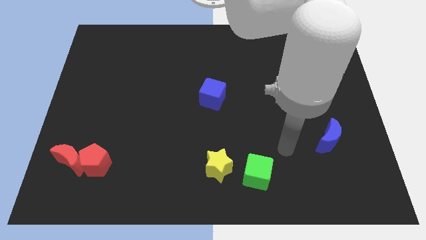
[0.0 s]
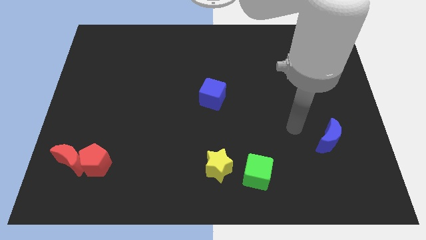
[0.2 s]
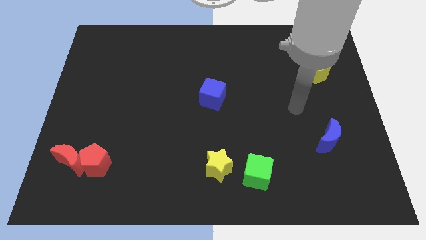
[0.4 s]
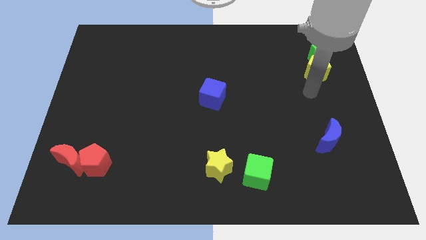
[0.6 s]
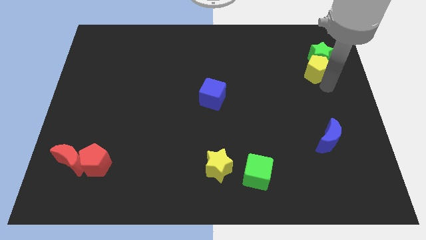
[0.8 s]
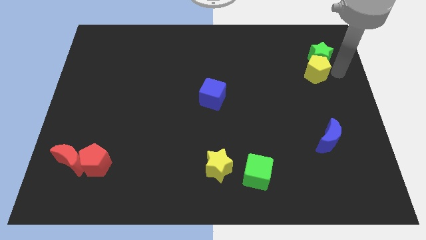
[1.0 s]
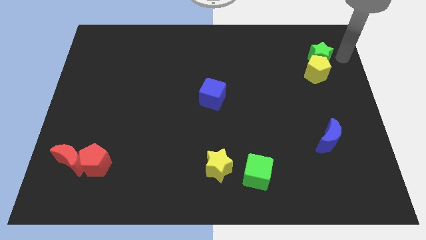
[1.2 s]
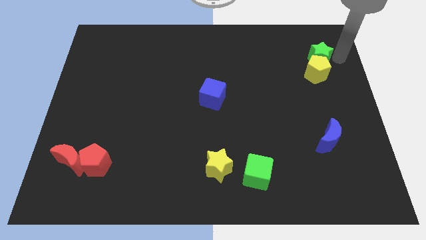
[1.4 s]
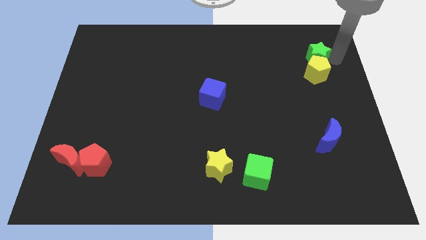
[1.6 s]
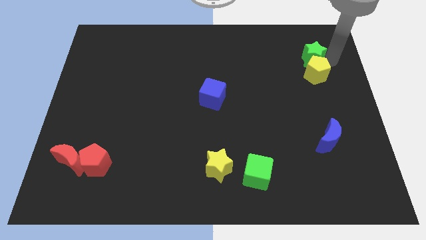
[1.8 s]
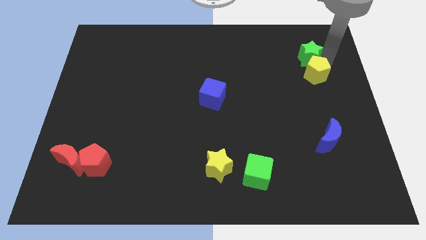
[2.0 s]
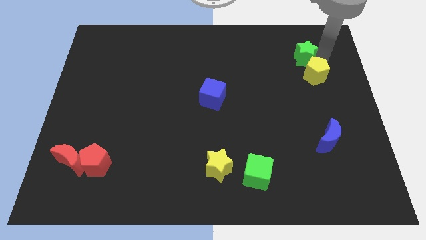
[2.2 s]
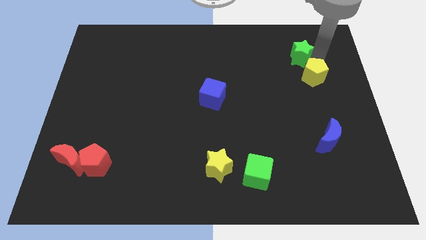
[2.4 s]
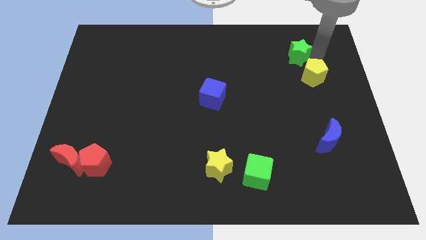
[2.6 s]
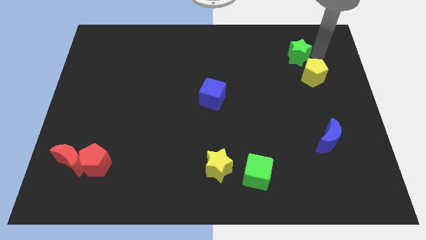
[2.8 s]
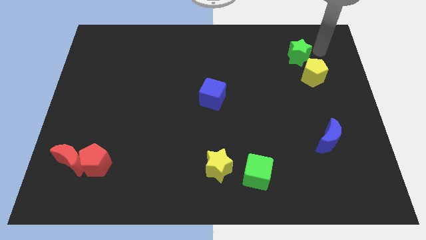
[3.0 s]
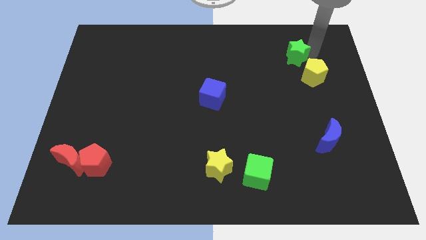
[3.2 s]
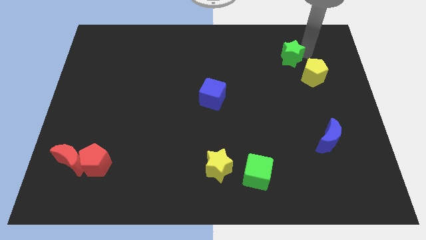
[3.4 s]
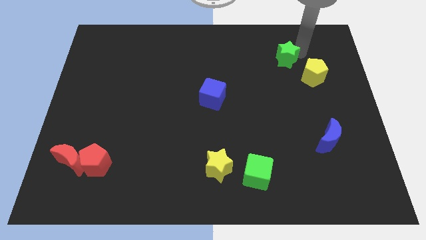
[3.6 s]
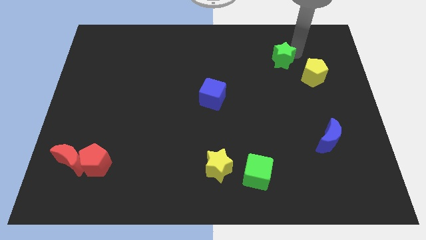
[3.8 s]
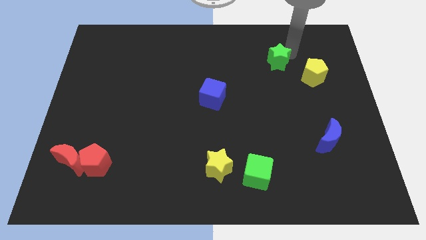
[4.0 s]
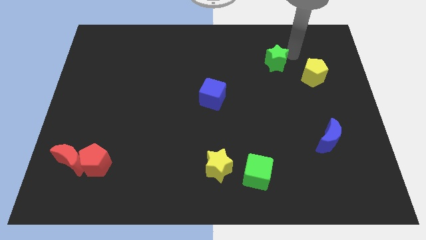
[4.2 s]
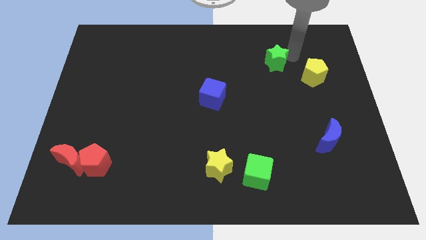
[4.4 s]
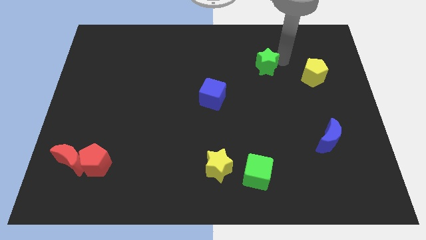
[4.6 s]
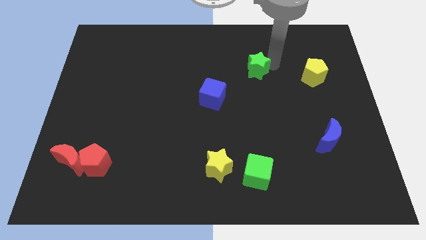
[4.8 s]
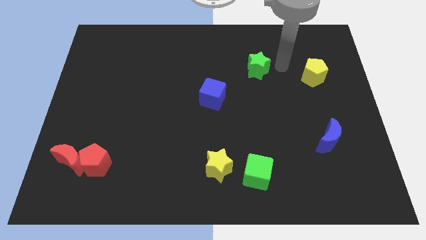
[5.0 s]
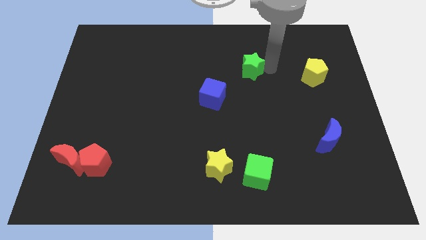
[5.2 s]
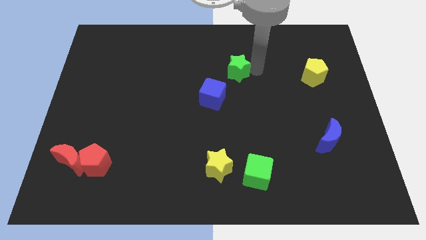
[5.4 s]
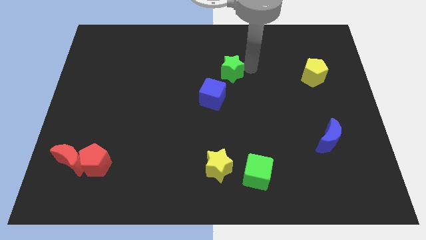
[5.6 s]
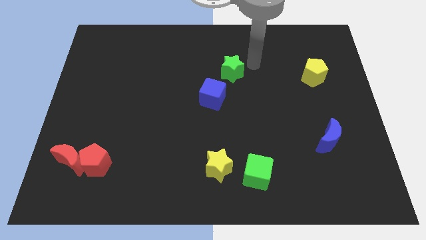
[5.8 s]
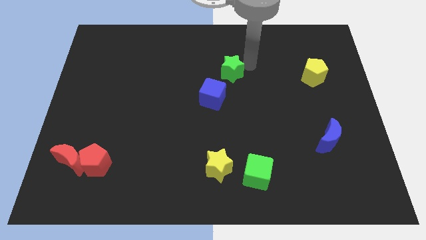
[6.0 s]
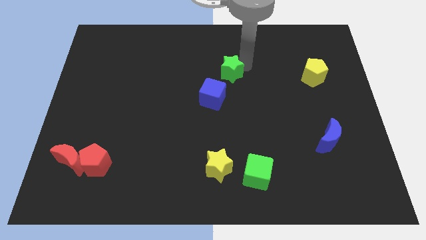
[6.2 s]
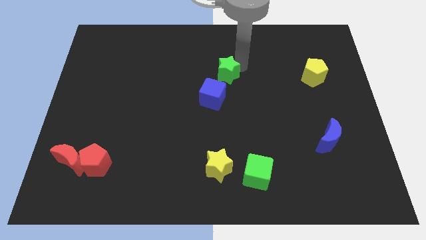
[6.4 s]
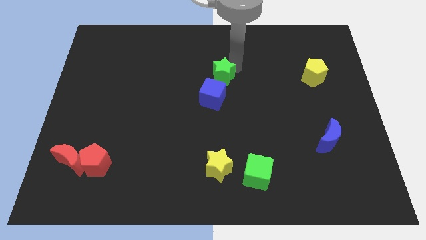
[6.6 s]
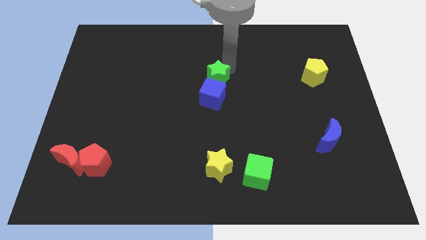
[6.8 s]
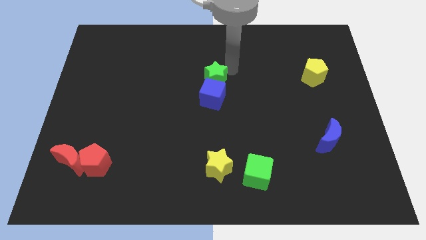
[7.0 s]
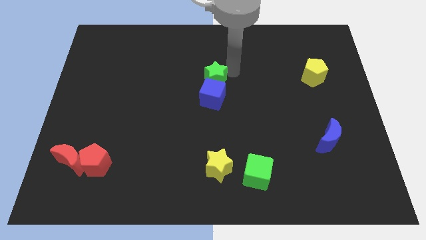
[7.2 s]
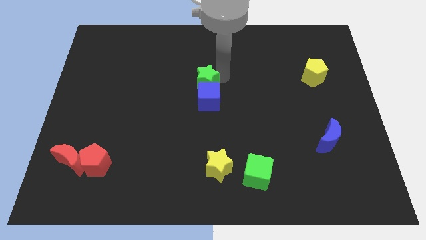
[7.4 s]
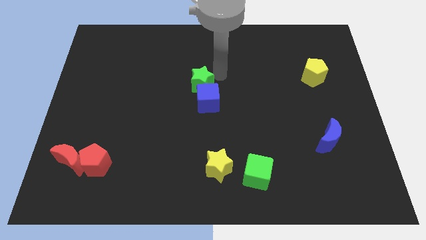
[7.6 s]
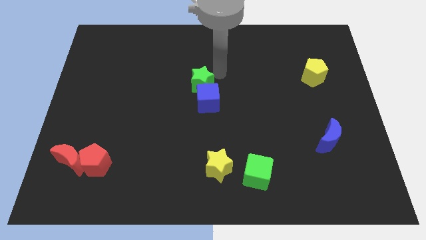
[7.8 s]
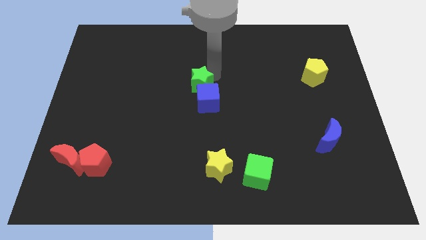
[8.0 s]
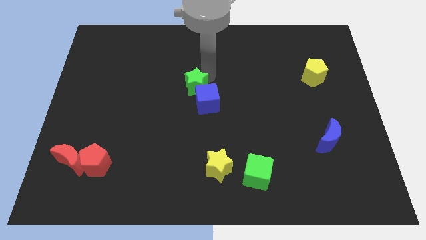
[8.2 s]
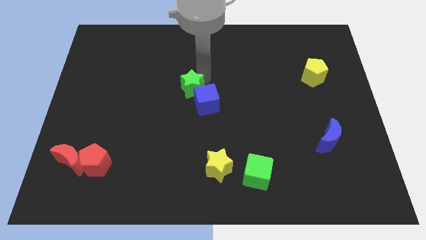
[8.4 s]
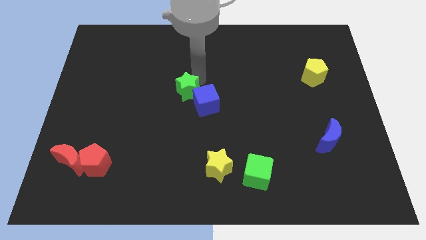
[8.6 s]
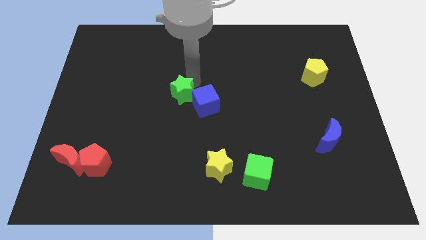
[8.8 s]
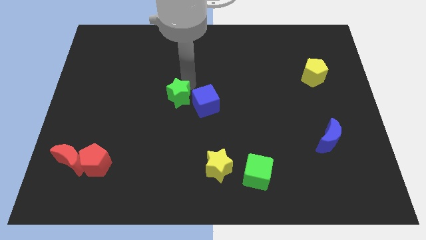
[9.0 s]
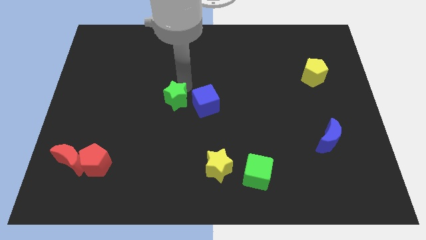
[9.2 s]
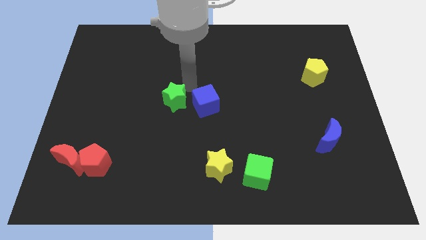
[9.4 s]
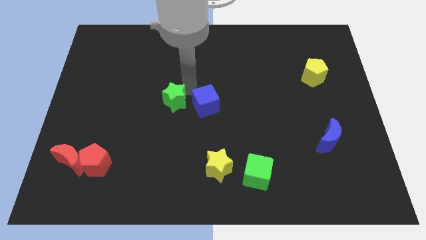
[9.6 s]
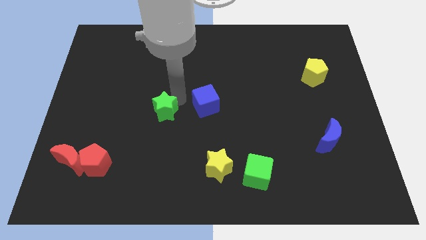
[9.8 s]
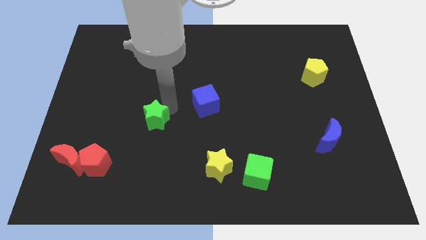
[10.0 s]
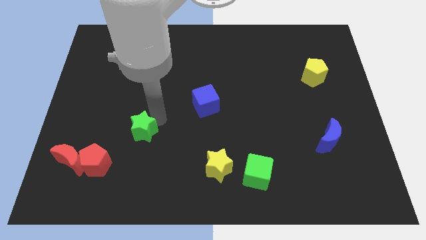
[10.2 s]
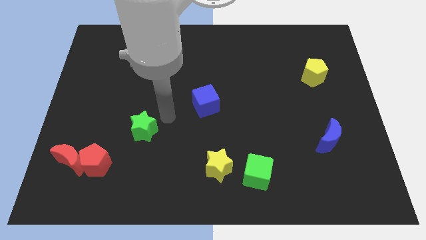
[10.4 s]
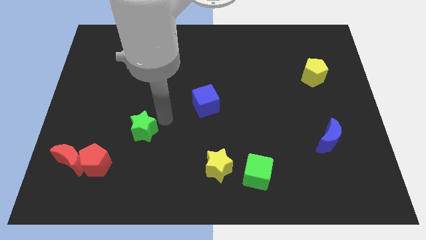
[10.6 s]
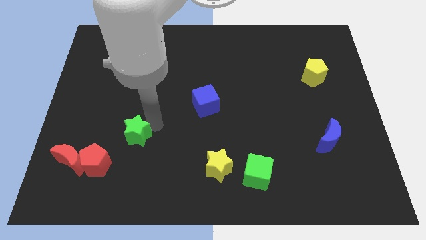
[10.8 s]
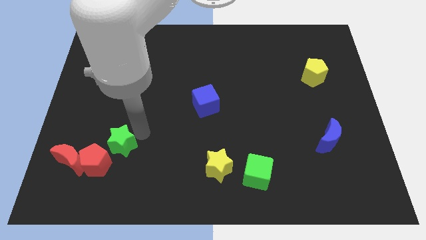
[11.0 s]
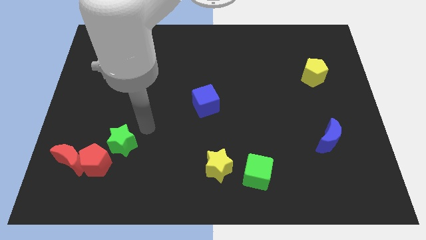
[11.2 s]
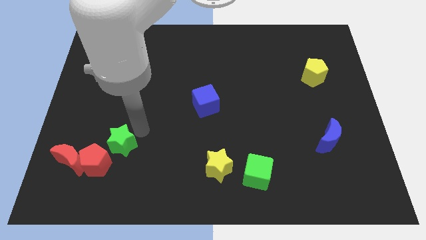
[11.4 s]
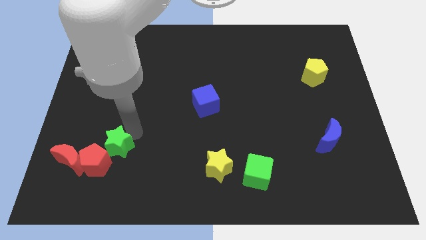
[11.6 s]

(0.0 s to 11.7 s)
slide the green star to the red pentagon

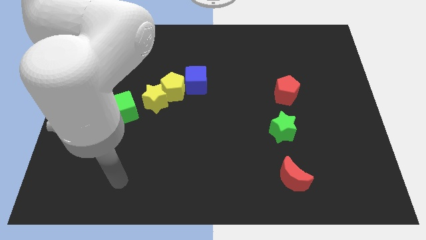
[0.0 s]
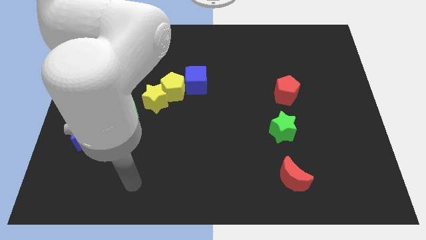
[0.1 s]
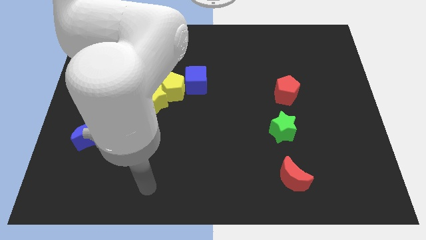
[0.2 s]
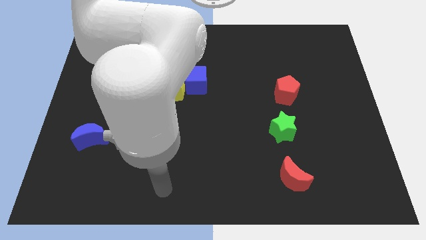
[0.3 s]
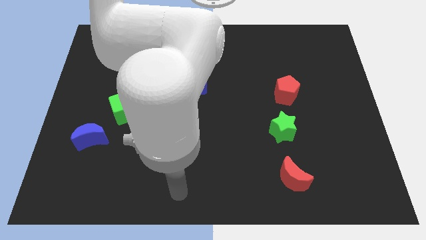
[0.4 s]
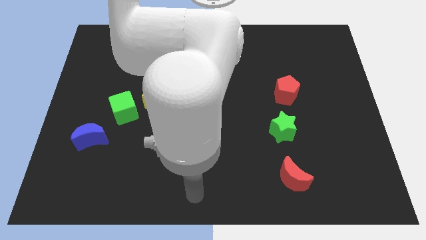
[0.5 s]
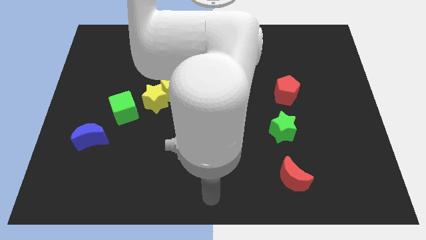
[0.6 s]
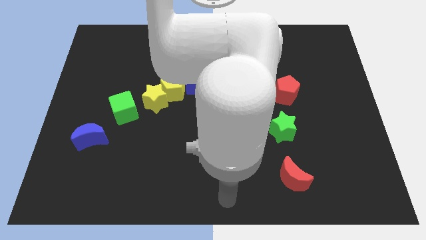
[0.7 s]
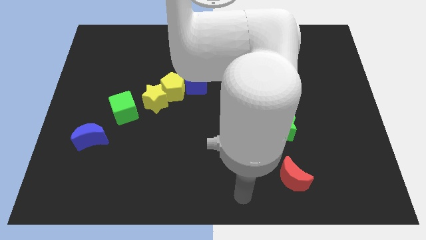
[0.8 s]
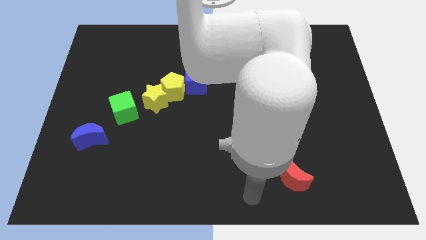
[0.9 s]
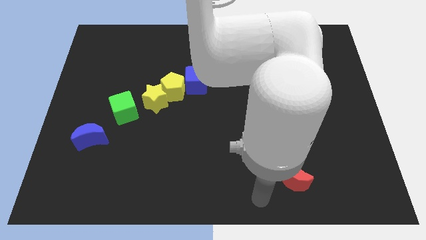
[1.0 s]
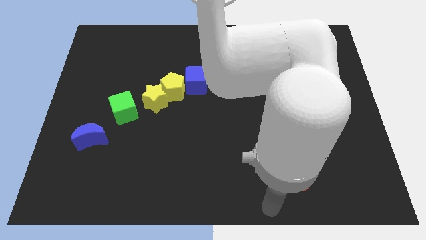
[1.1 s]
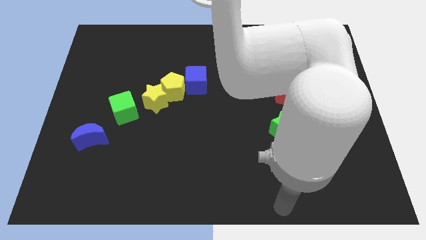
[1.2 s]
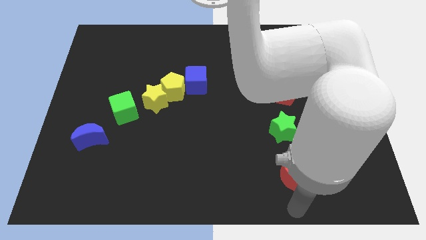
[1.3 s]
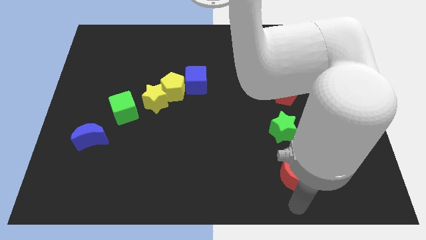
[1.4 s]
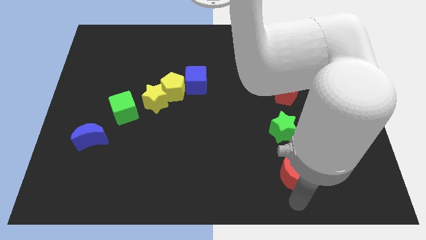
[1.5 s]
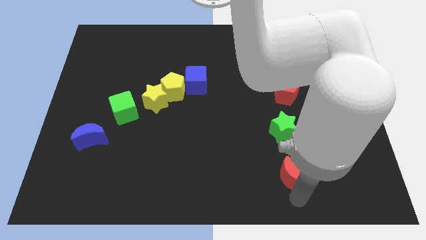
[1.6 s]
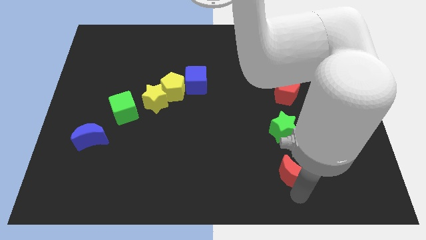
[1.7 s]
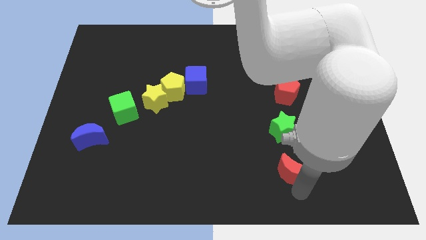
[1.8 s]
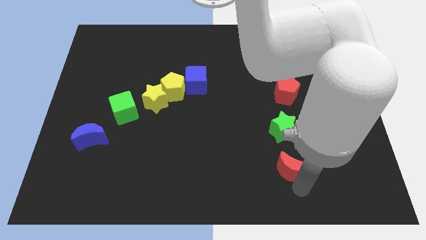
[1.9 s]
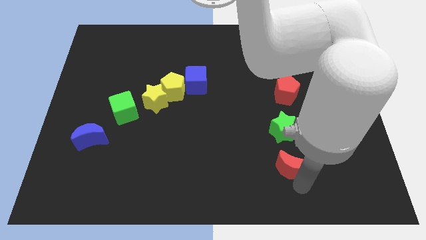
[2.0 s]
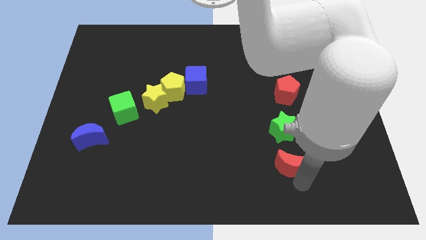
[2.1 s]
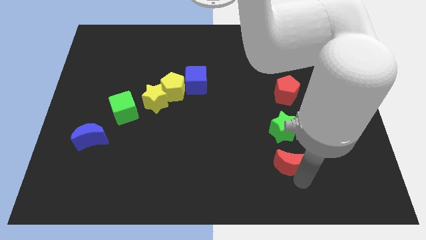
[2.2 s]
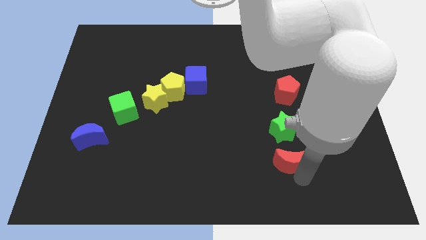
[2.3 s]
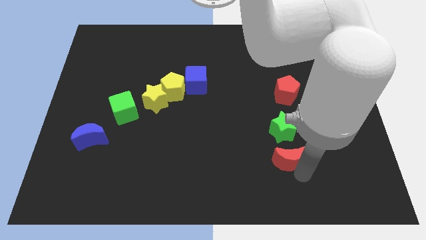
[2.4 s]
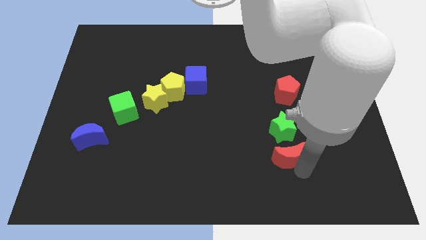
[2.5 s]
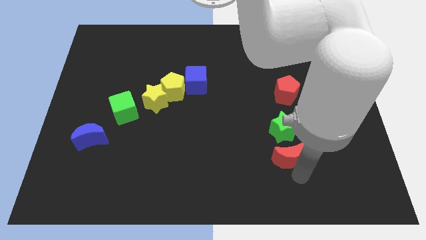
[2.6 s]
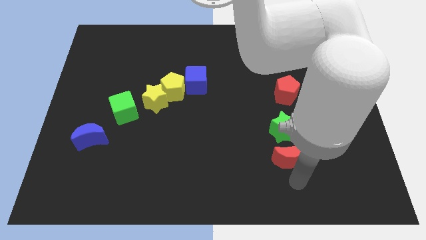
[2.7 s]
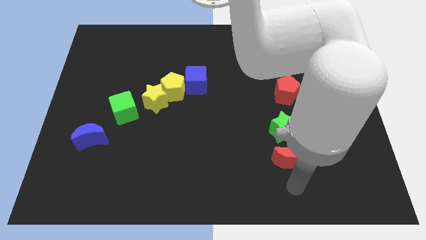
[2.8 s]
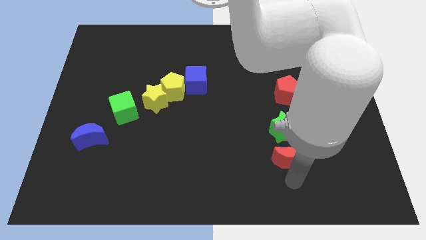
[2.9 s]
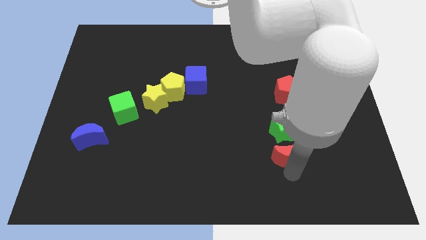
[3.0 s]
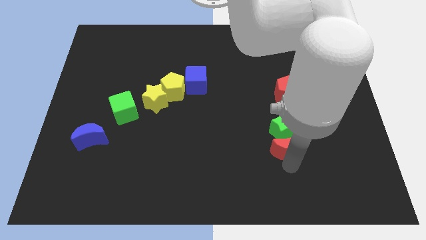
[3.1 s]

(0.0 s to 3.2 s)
put the red moon towards the green star
